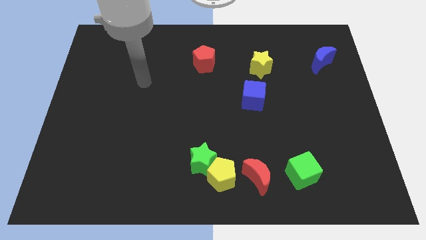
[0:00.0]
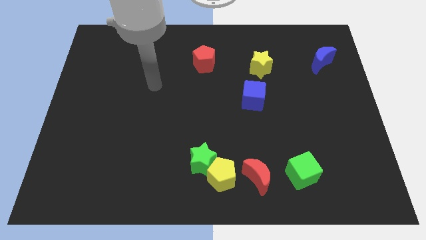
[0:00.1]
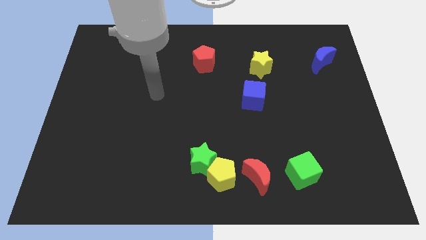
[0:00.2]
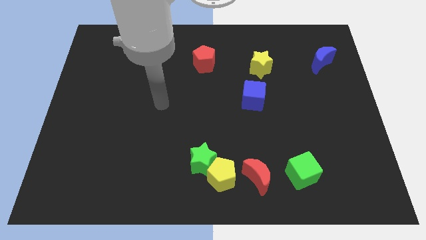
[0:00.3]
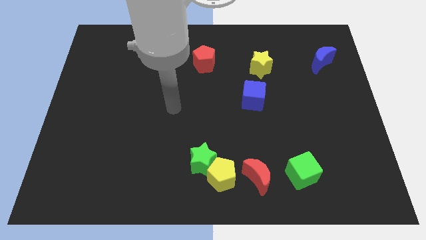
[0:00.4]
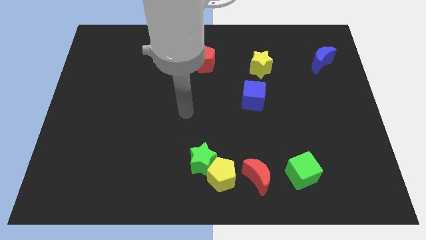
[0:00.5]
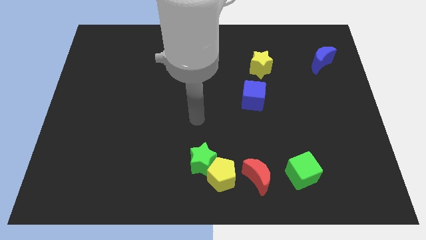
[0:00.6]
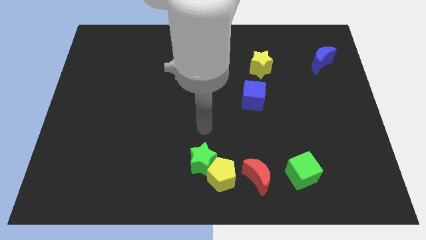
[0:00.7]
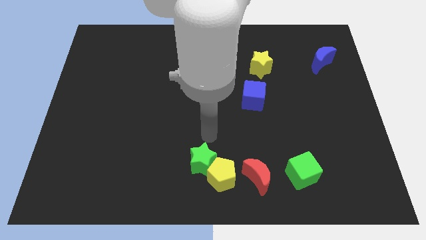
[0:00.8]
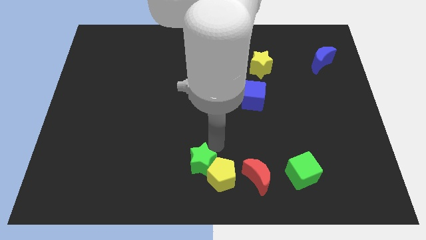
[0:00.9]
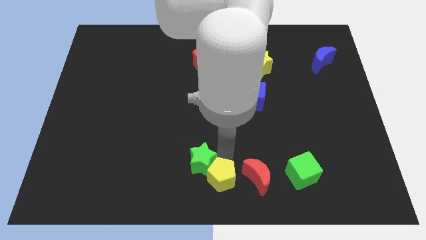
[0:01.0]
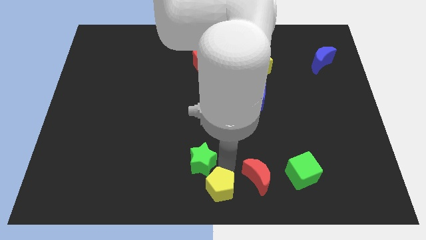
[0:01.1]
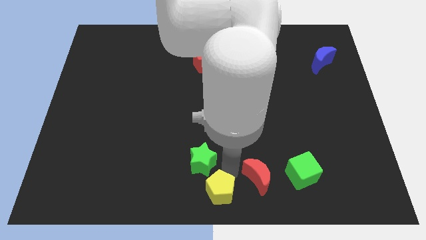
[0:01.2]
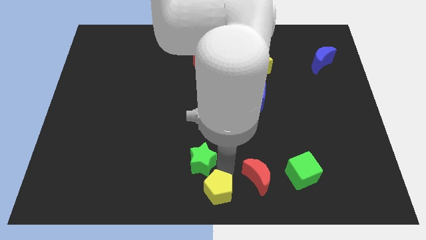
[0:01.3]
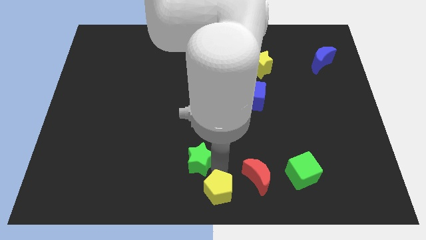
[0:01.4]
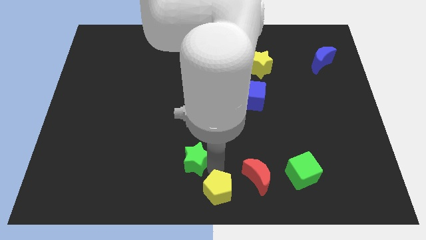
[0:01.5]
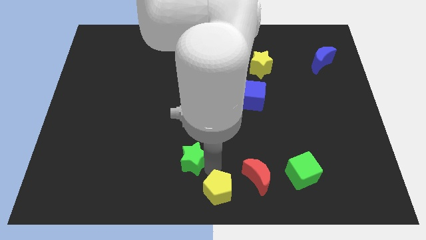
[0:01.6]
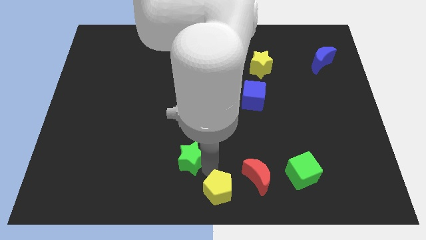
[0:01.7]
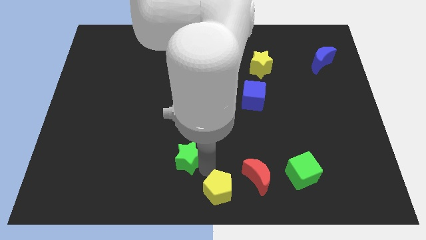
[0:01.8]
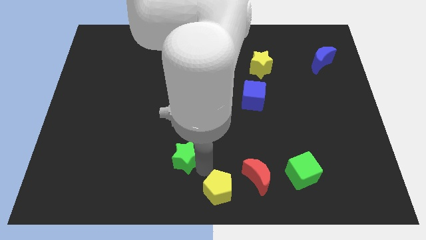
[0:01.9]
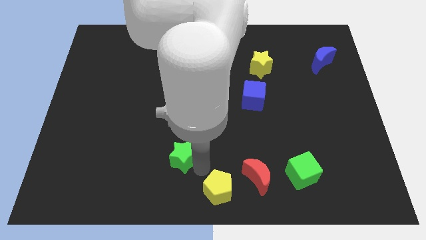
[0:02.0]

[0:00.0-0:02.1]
pull the green star apart from the yellow pentagon

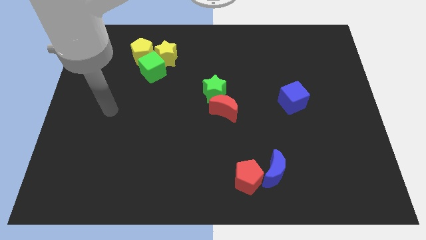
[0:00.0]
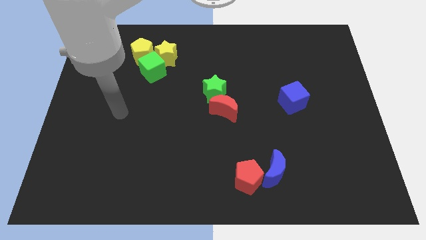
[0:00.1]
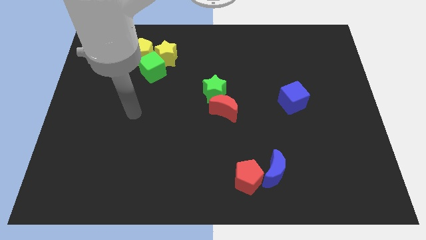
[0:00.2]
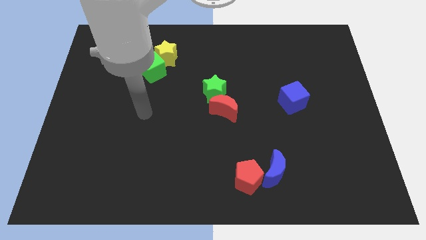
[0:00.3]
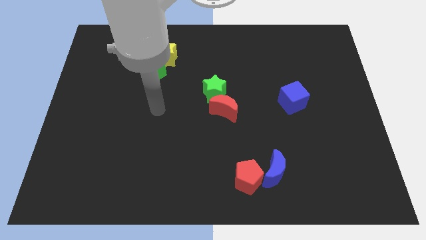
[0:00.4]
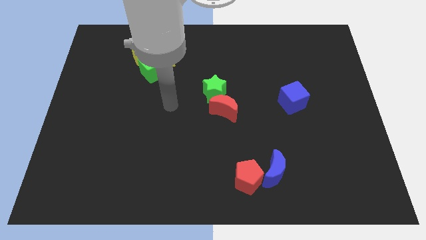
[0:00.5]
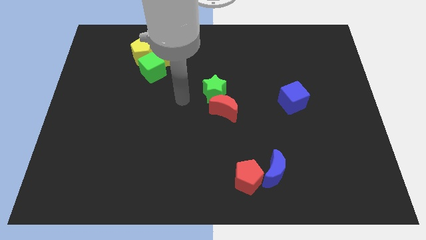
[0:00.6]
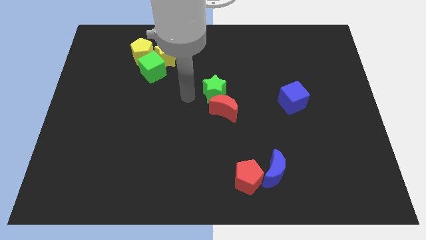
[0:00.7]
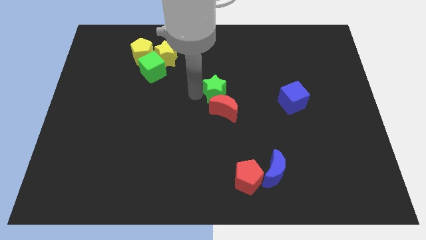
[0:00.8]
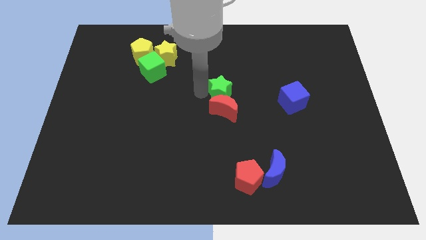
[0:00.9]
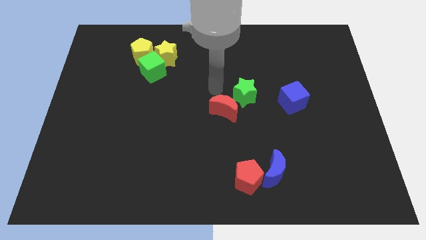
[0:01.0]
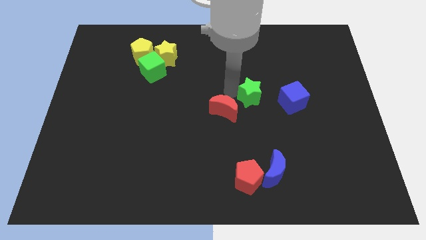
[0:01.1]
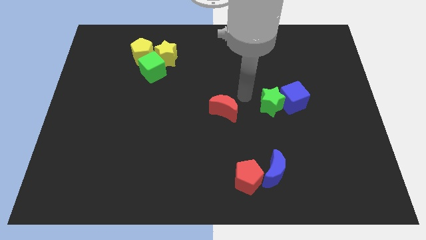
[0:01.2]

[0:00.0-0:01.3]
pull the red moon apart from the green star

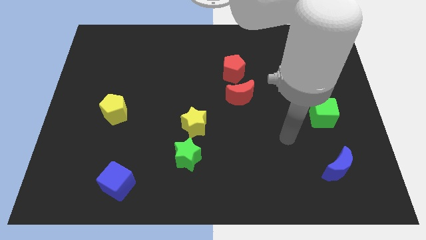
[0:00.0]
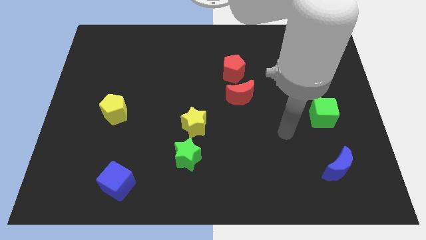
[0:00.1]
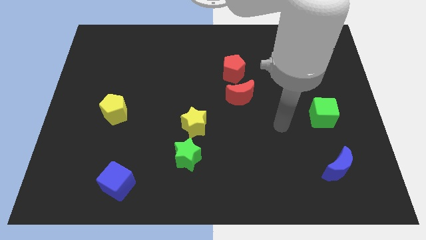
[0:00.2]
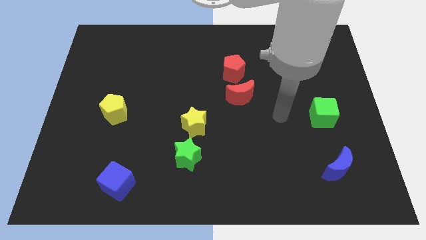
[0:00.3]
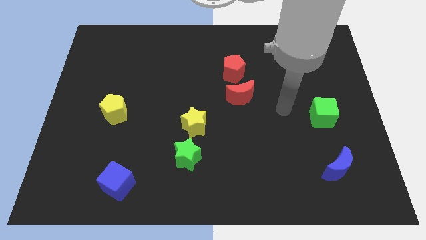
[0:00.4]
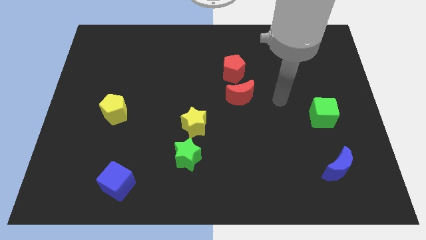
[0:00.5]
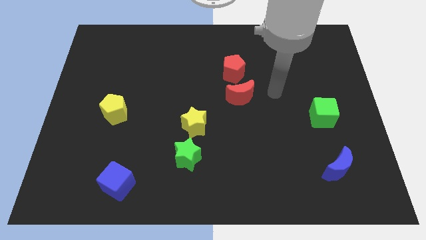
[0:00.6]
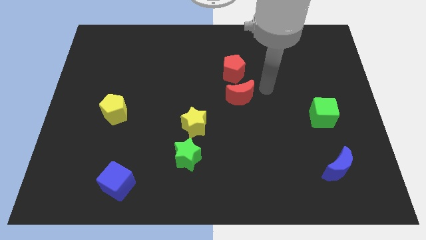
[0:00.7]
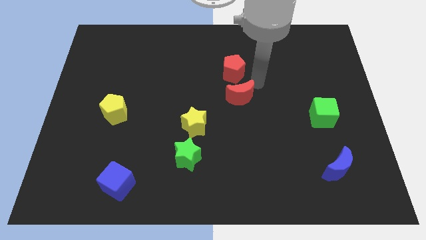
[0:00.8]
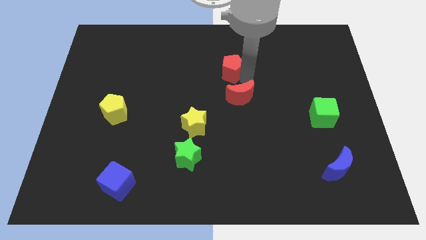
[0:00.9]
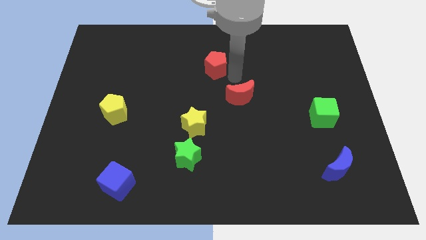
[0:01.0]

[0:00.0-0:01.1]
separate the red moon from the red pentagon

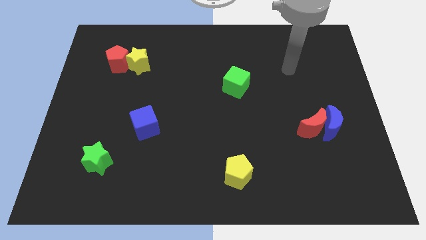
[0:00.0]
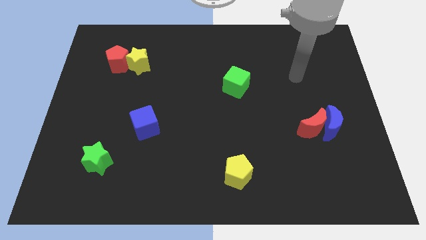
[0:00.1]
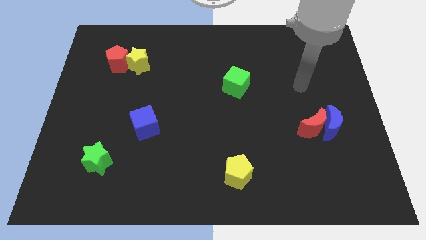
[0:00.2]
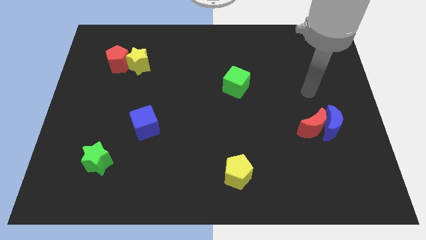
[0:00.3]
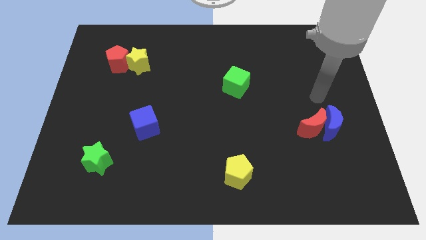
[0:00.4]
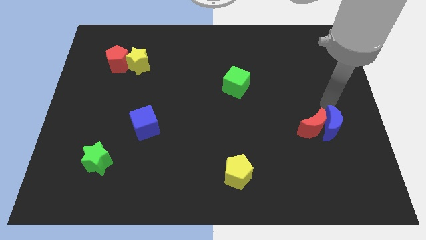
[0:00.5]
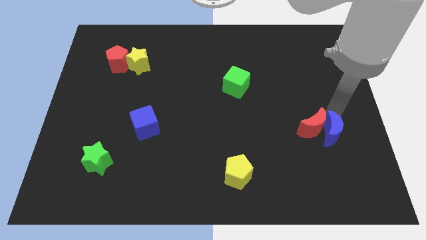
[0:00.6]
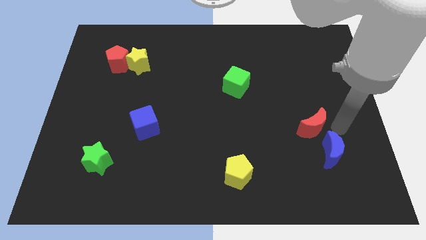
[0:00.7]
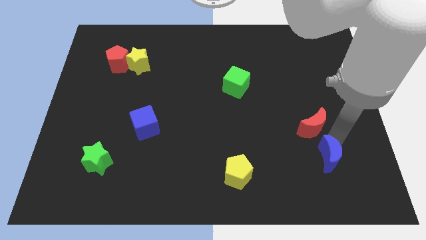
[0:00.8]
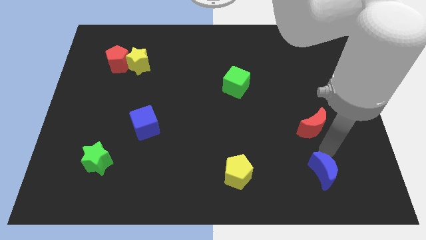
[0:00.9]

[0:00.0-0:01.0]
move the red moon away from the blue moon

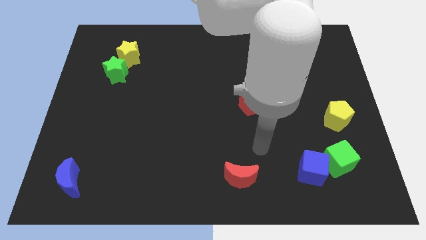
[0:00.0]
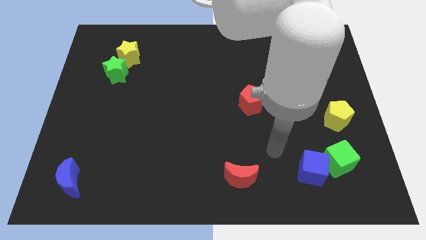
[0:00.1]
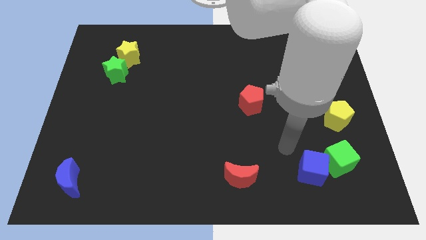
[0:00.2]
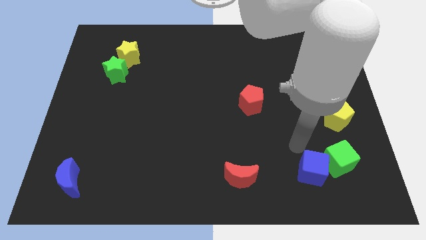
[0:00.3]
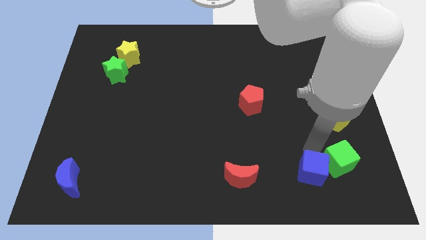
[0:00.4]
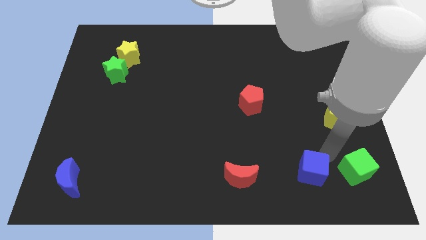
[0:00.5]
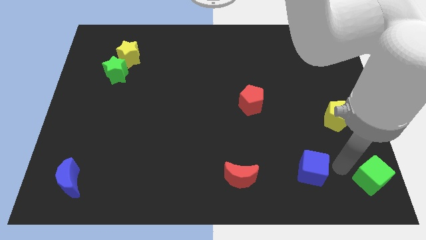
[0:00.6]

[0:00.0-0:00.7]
pull the blue cube apart from the green cube

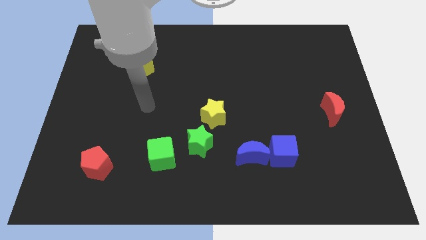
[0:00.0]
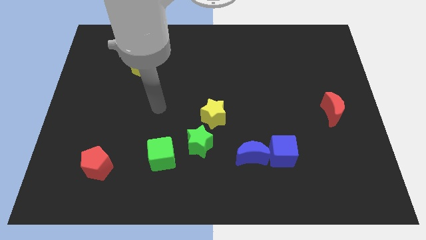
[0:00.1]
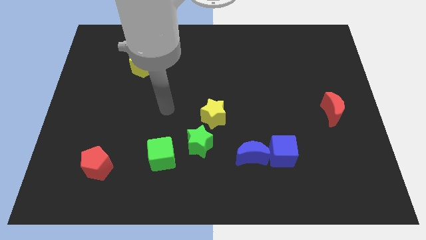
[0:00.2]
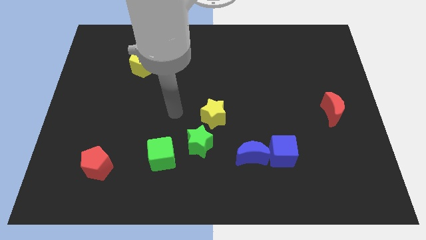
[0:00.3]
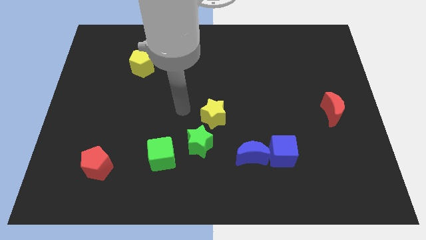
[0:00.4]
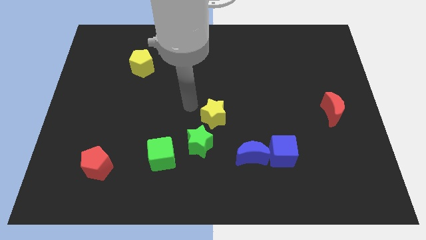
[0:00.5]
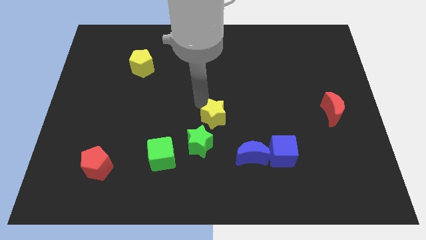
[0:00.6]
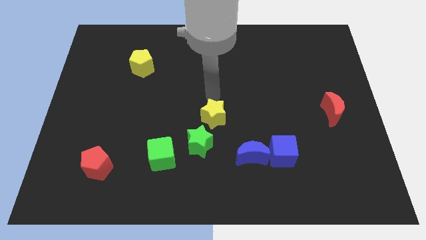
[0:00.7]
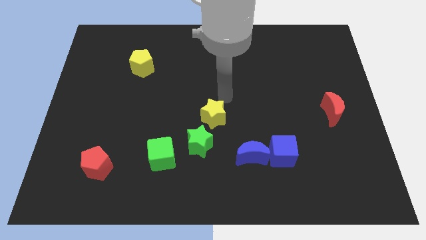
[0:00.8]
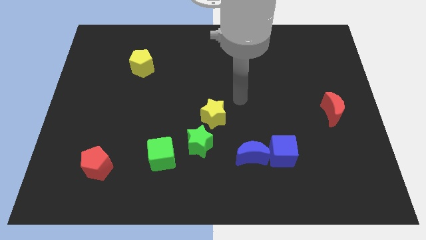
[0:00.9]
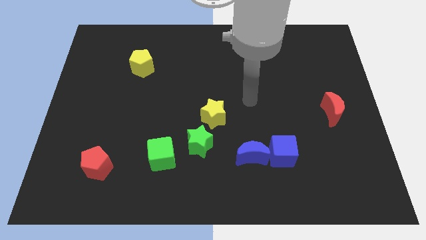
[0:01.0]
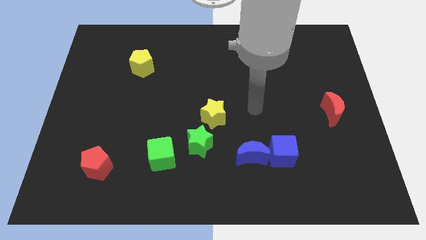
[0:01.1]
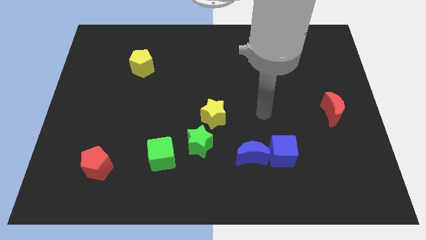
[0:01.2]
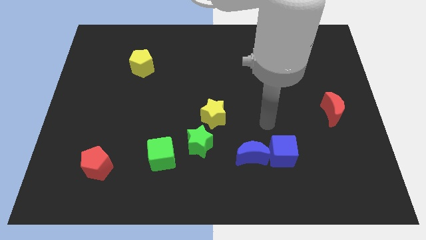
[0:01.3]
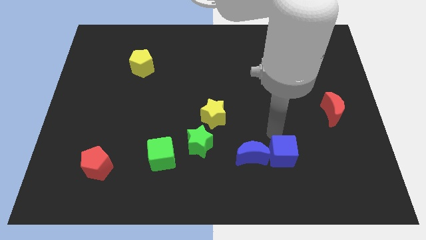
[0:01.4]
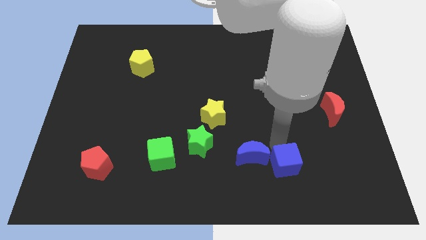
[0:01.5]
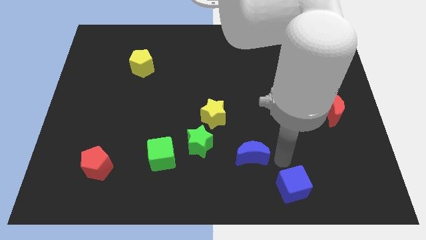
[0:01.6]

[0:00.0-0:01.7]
separate the blue moon from the blue cube

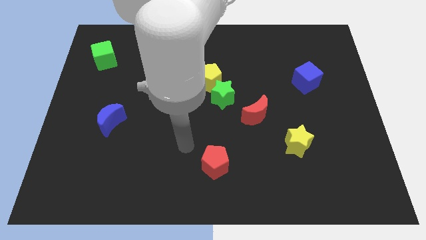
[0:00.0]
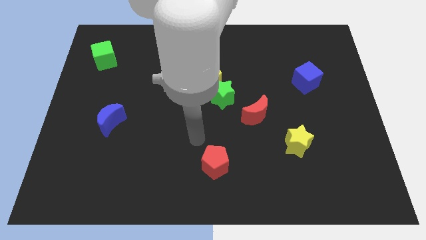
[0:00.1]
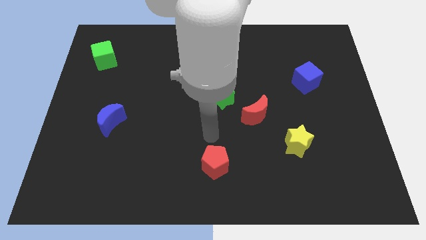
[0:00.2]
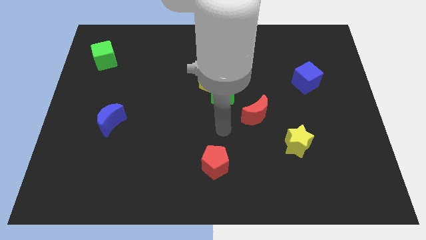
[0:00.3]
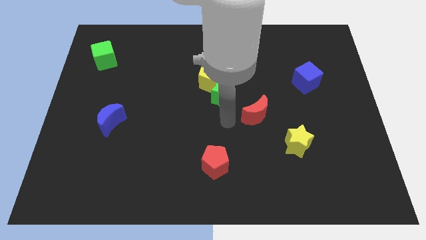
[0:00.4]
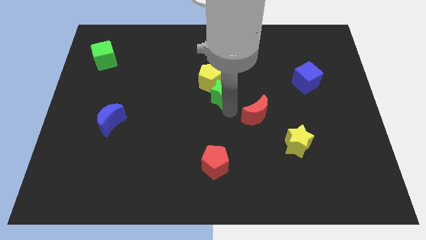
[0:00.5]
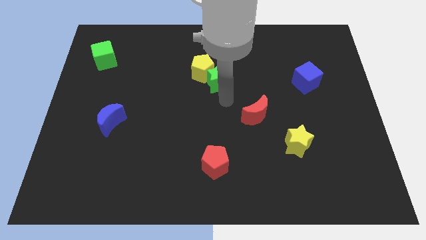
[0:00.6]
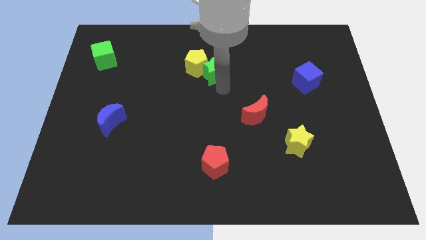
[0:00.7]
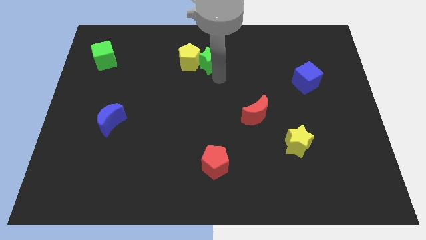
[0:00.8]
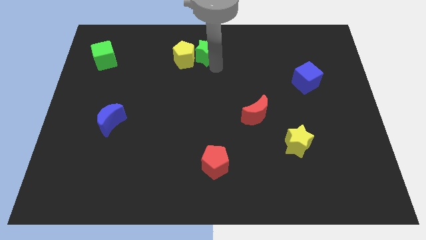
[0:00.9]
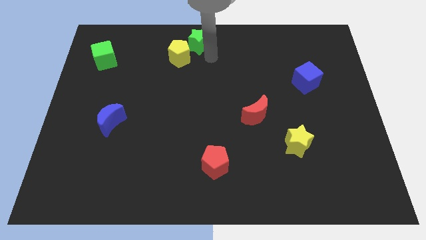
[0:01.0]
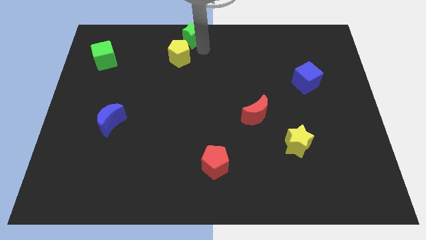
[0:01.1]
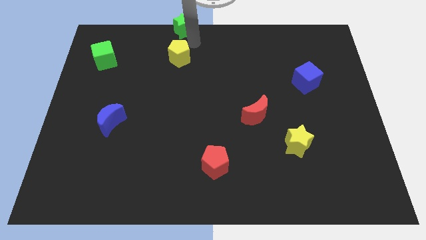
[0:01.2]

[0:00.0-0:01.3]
pull the yellow pentagon apart from the green star

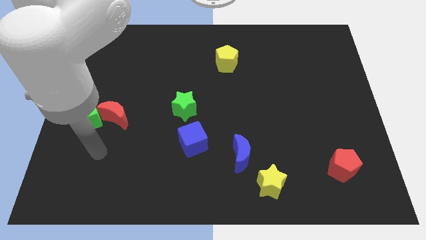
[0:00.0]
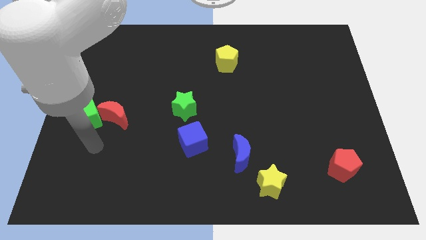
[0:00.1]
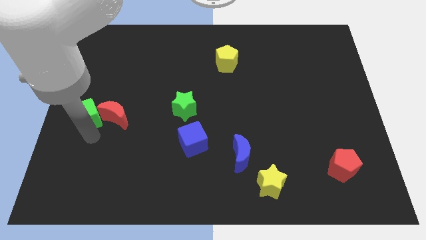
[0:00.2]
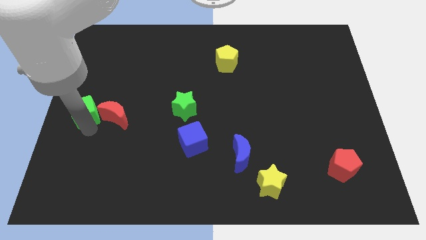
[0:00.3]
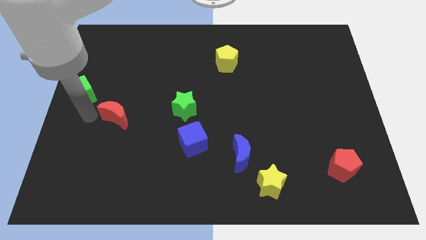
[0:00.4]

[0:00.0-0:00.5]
separate the red moon from the green cube
